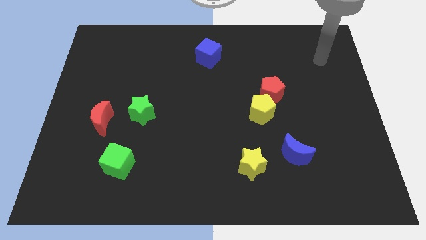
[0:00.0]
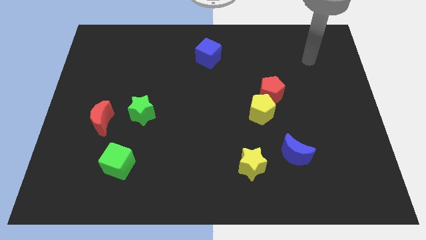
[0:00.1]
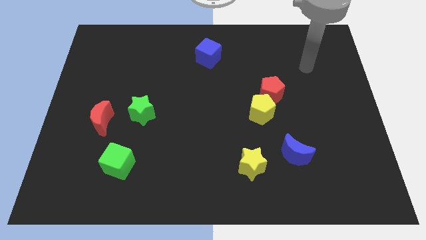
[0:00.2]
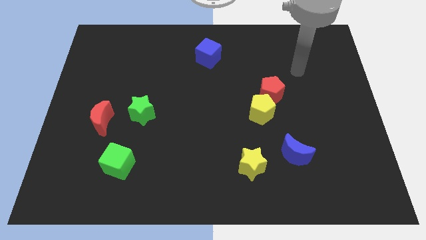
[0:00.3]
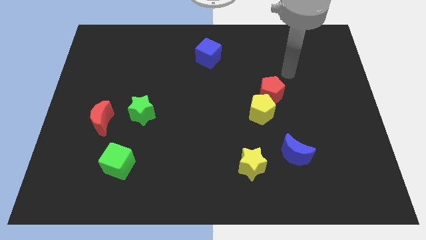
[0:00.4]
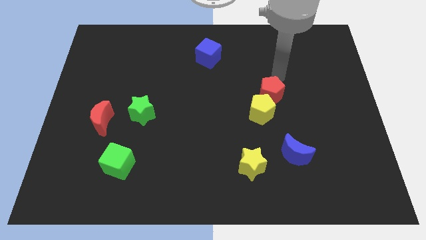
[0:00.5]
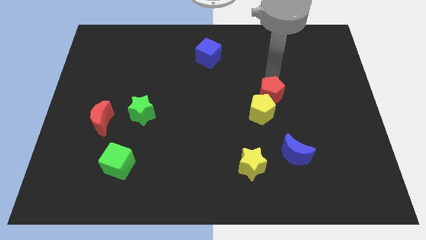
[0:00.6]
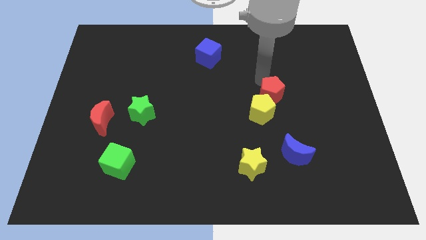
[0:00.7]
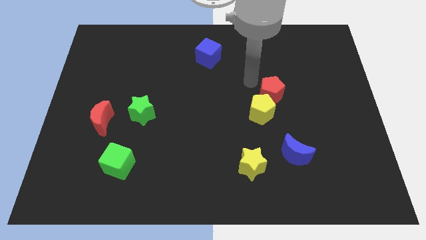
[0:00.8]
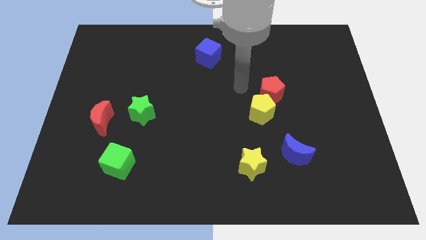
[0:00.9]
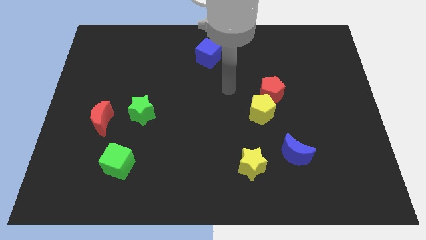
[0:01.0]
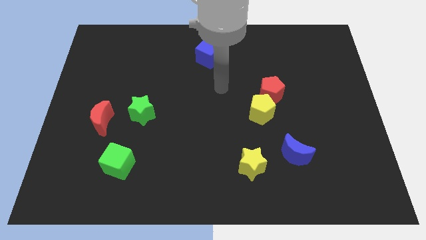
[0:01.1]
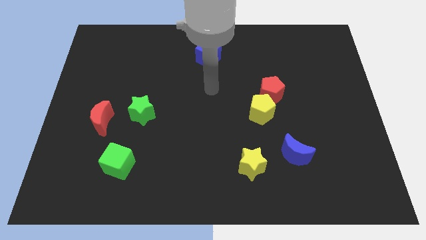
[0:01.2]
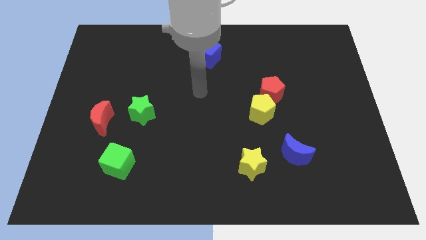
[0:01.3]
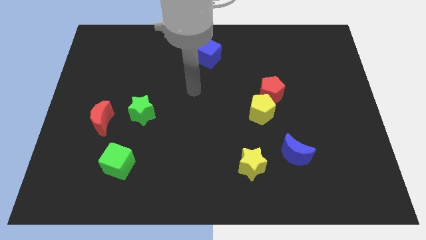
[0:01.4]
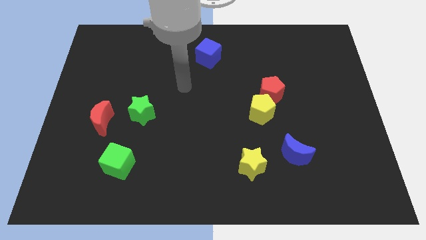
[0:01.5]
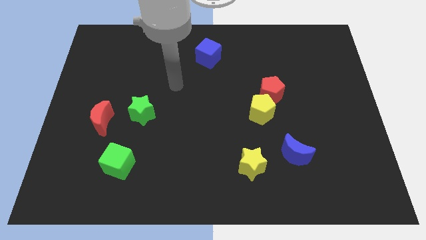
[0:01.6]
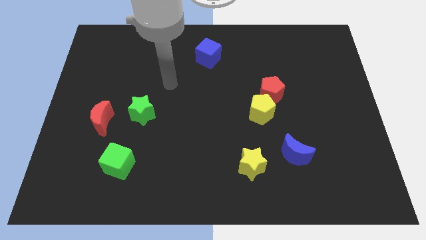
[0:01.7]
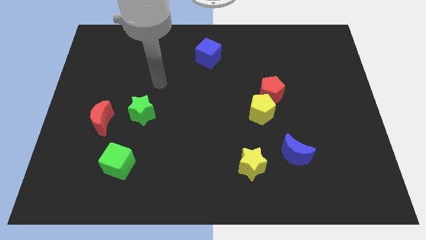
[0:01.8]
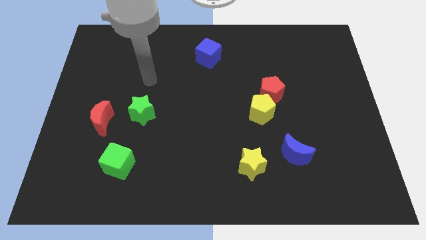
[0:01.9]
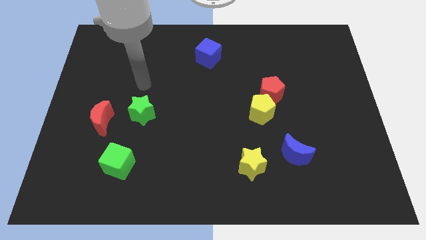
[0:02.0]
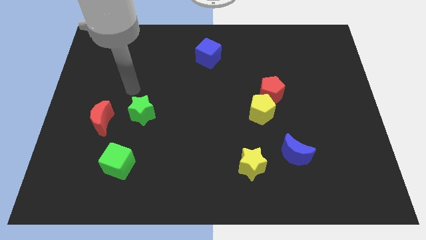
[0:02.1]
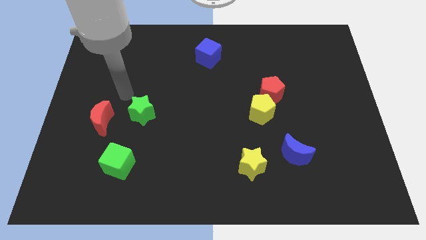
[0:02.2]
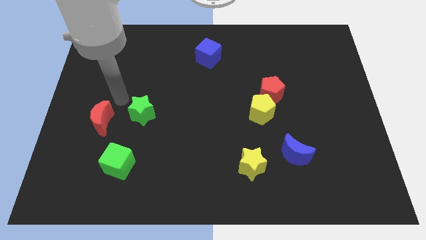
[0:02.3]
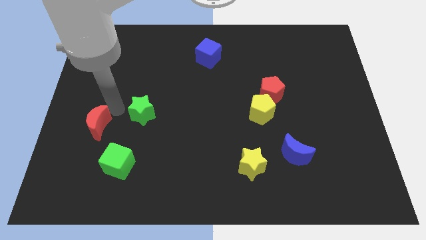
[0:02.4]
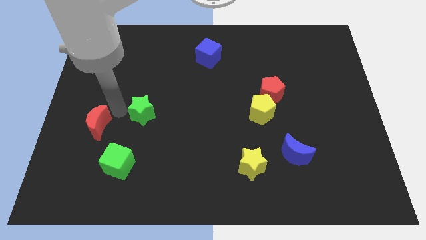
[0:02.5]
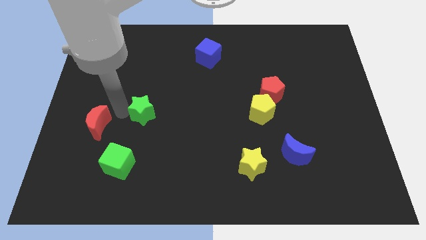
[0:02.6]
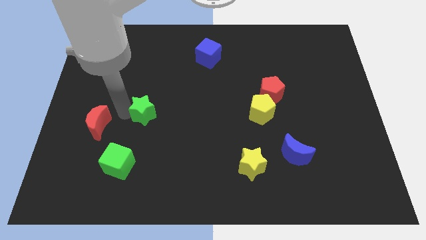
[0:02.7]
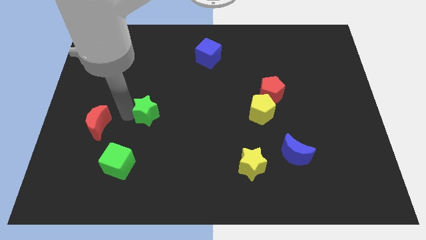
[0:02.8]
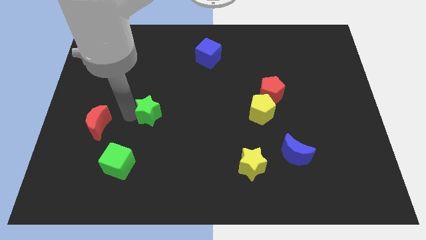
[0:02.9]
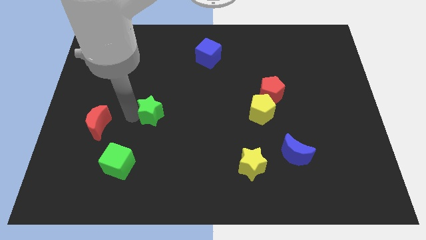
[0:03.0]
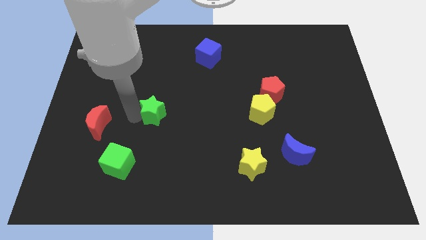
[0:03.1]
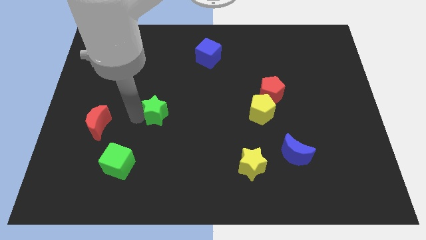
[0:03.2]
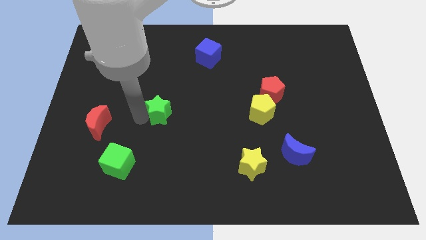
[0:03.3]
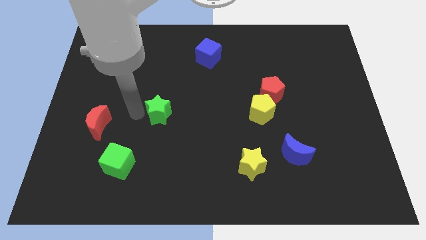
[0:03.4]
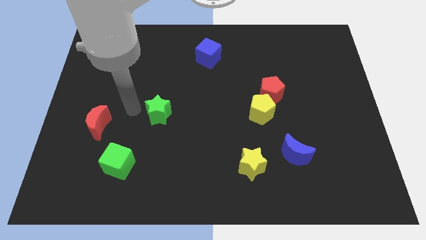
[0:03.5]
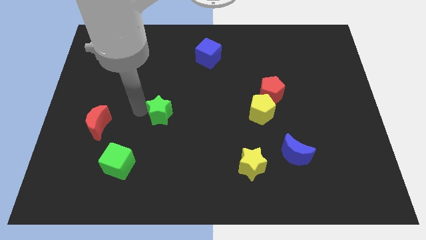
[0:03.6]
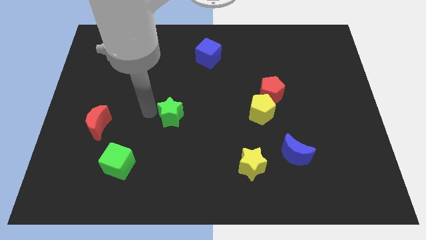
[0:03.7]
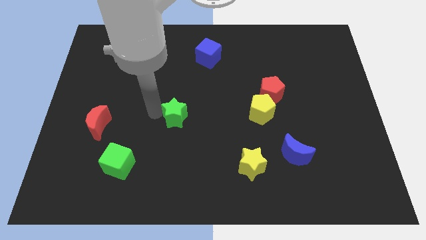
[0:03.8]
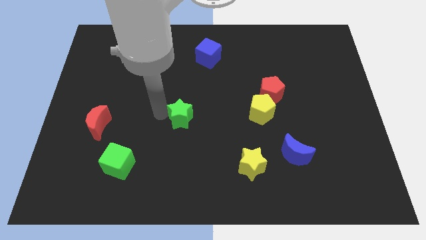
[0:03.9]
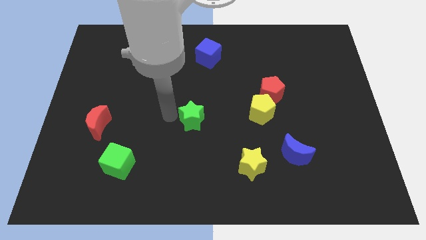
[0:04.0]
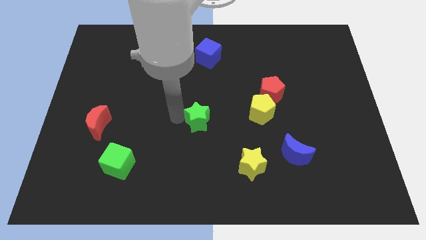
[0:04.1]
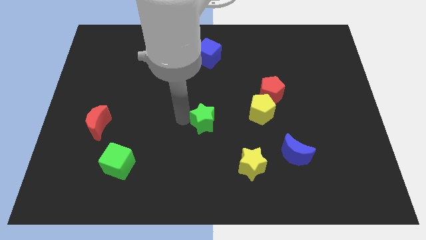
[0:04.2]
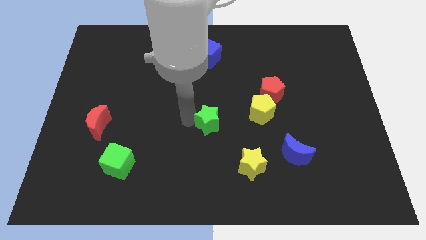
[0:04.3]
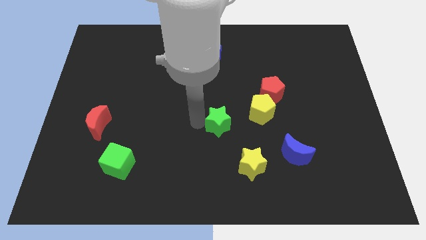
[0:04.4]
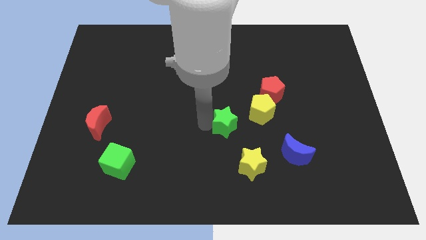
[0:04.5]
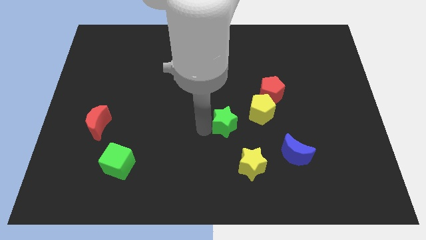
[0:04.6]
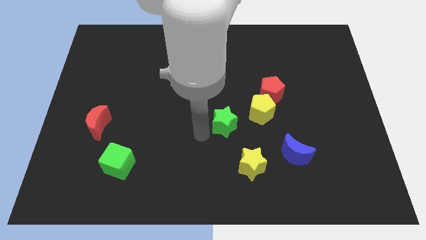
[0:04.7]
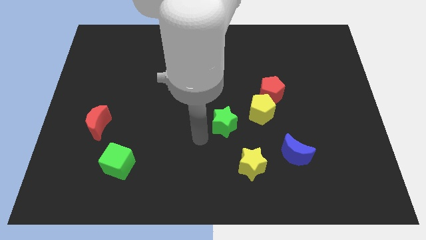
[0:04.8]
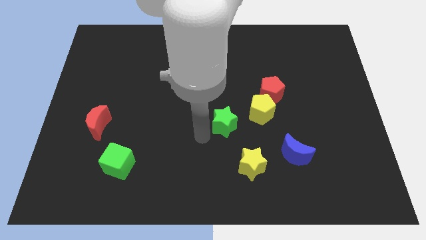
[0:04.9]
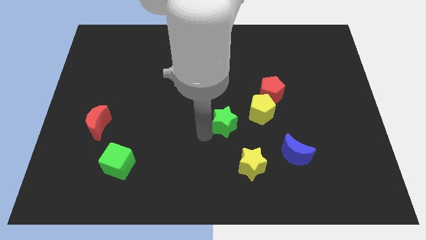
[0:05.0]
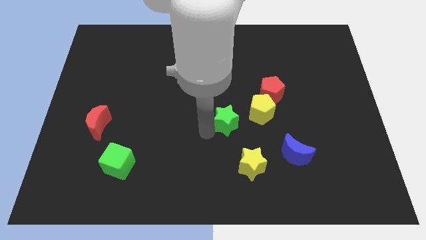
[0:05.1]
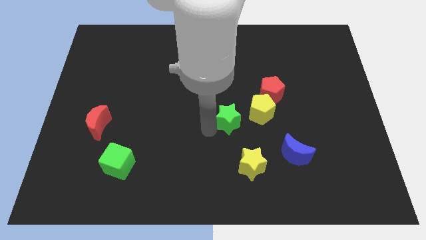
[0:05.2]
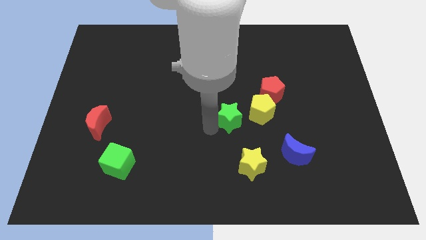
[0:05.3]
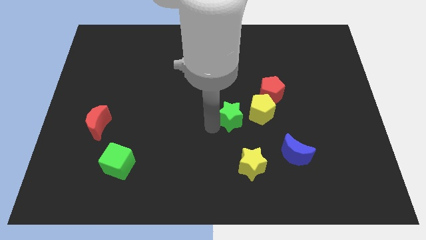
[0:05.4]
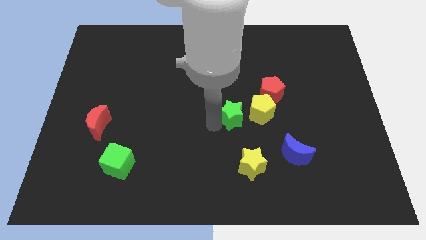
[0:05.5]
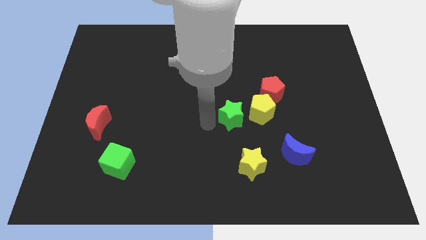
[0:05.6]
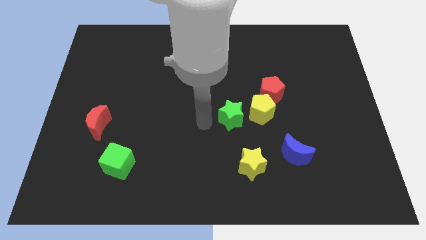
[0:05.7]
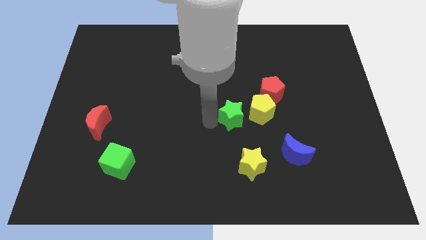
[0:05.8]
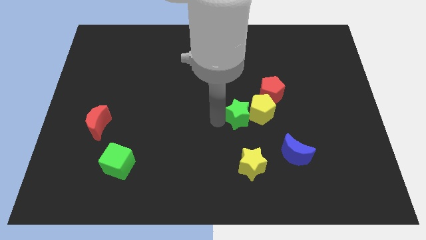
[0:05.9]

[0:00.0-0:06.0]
move the green star to the yellow pentagon

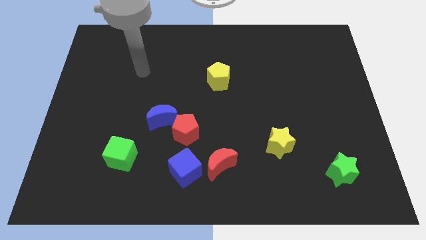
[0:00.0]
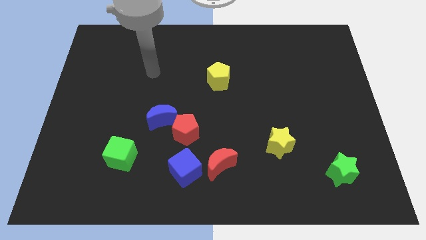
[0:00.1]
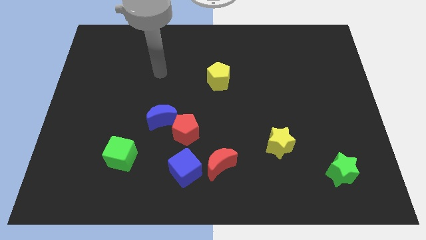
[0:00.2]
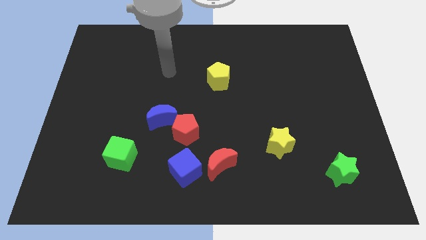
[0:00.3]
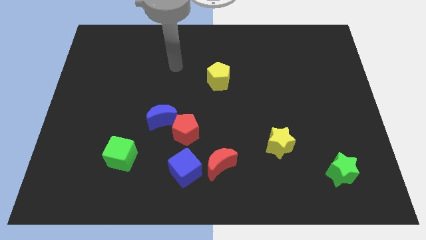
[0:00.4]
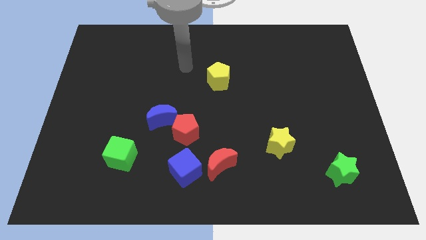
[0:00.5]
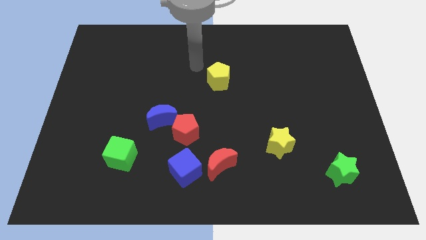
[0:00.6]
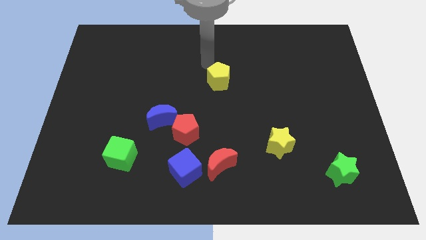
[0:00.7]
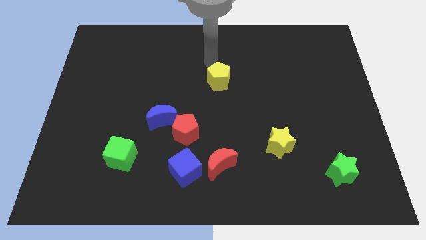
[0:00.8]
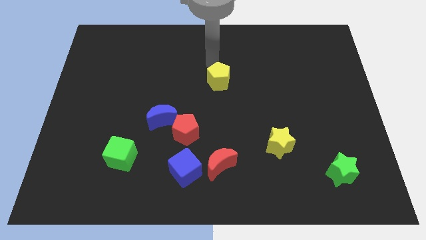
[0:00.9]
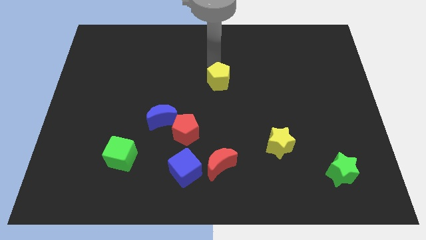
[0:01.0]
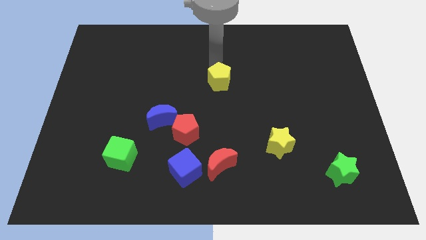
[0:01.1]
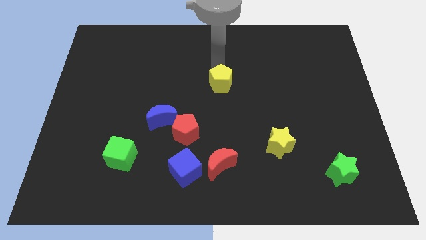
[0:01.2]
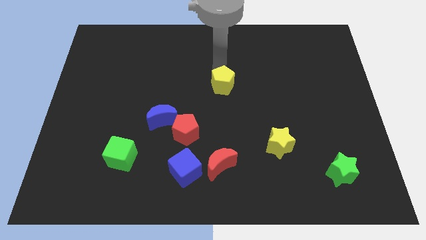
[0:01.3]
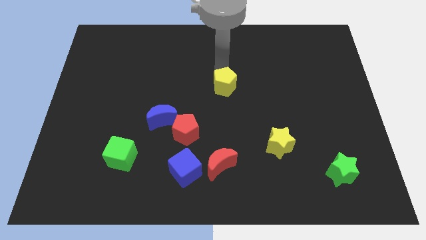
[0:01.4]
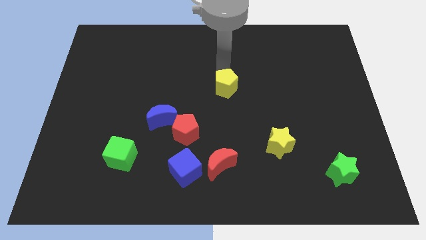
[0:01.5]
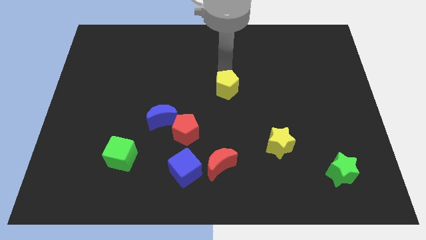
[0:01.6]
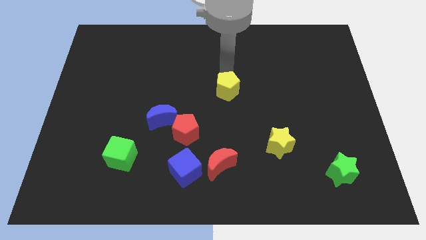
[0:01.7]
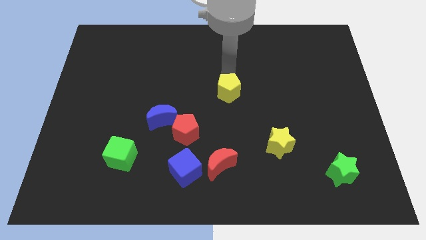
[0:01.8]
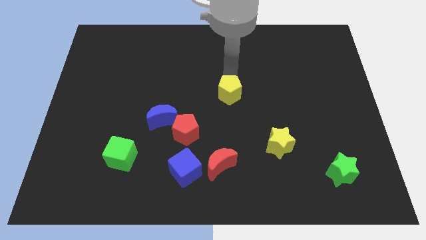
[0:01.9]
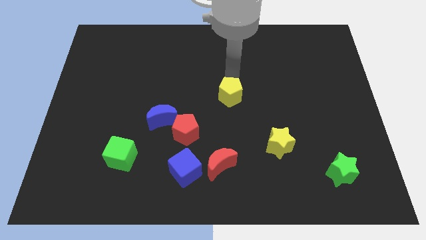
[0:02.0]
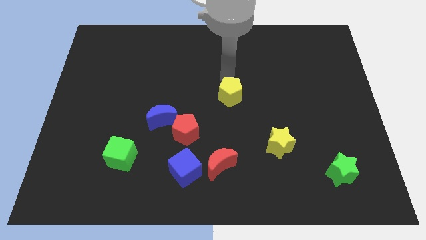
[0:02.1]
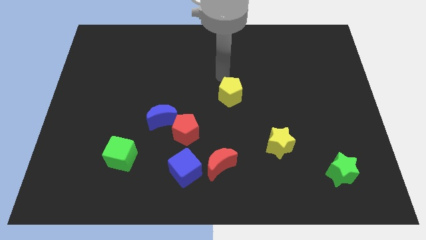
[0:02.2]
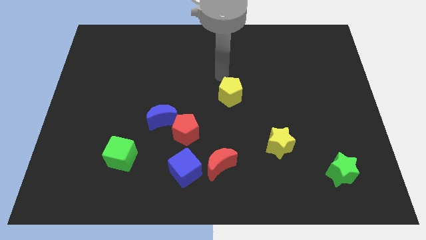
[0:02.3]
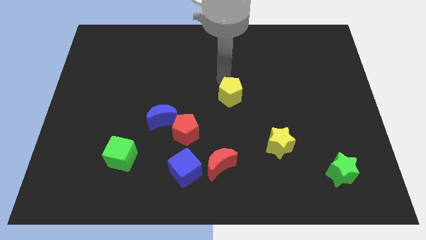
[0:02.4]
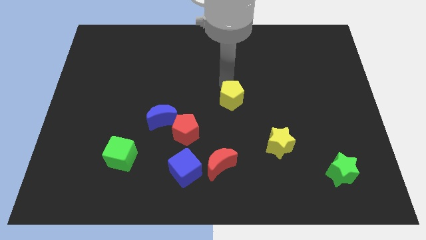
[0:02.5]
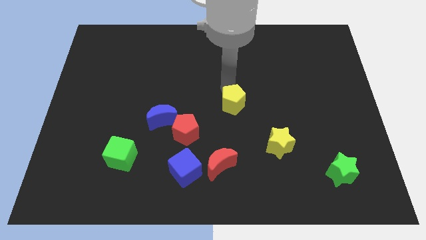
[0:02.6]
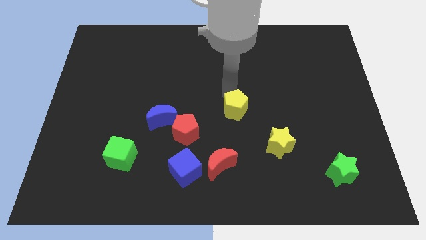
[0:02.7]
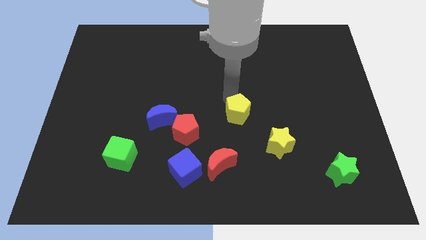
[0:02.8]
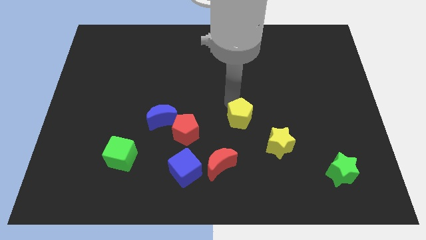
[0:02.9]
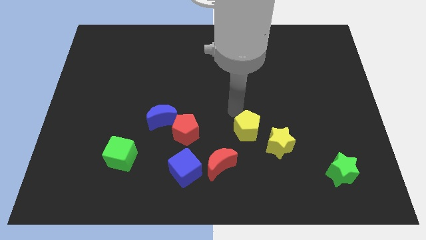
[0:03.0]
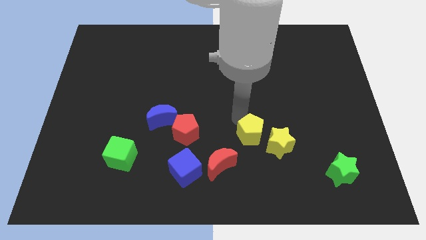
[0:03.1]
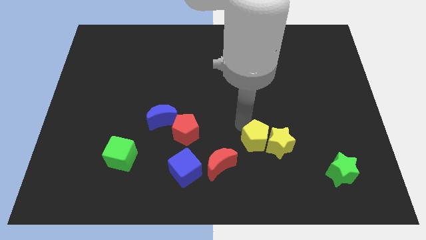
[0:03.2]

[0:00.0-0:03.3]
move the yellow pentagon to the yellow star
